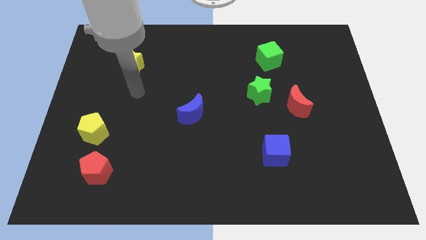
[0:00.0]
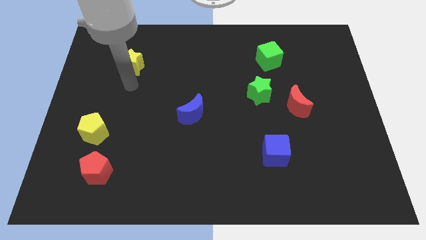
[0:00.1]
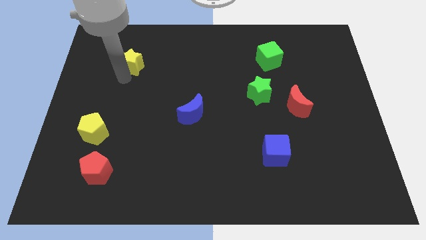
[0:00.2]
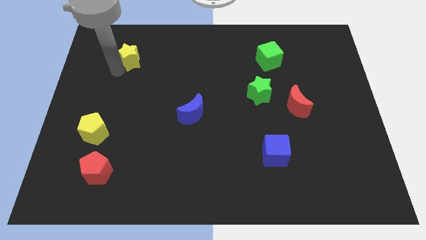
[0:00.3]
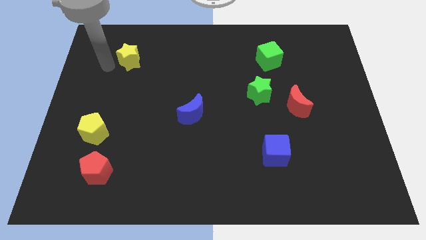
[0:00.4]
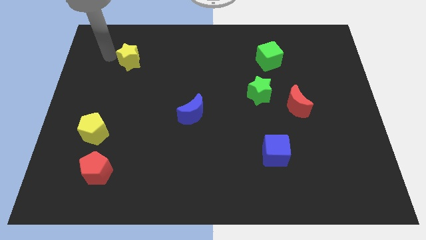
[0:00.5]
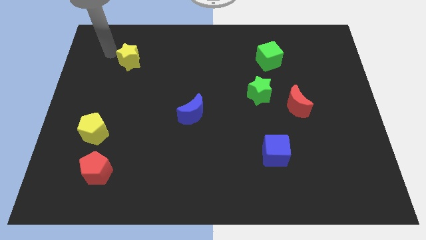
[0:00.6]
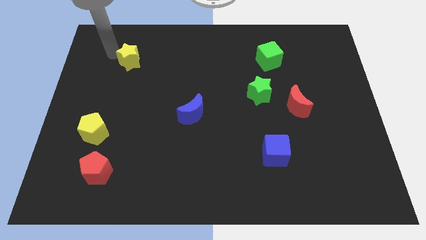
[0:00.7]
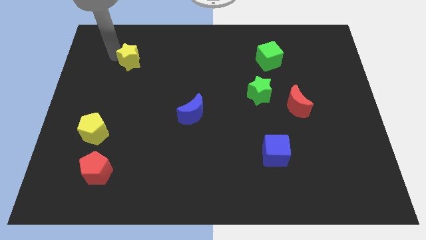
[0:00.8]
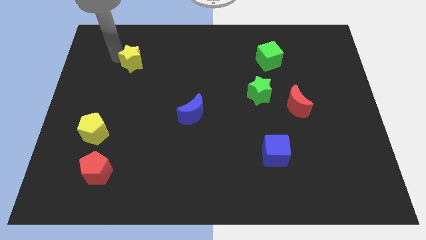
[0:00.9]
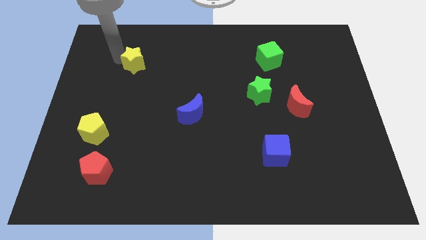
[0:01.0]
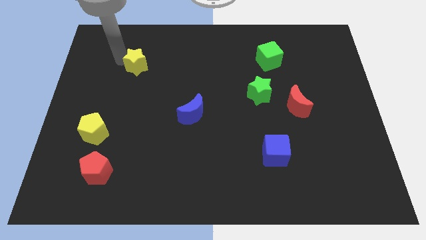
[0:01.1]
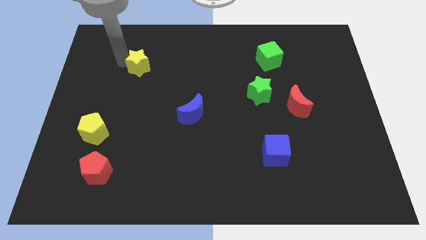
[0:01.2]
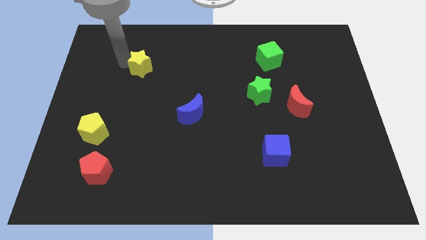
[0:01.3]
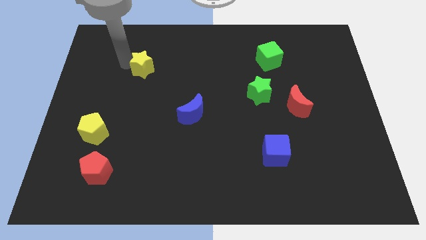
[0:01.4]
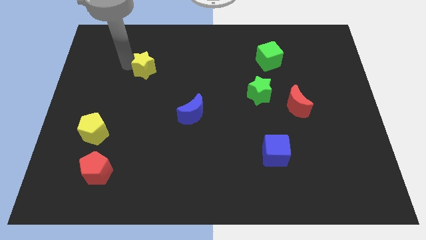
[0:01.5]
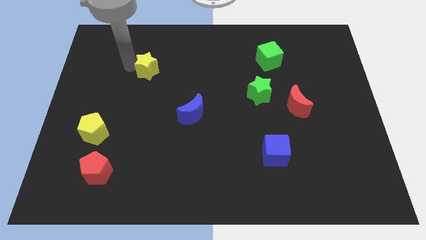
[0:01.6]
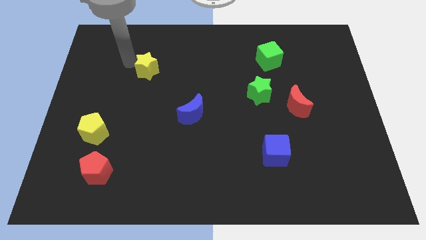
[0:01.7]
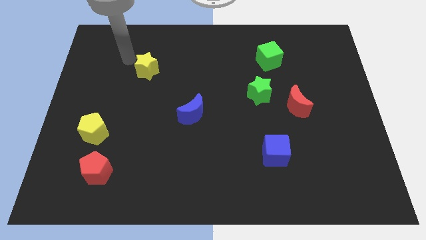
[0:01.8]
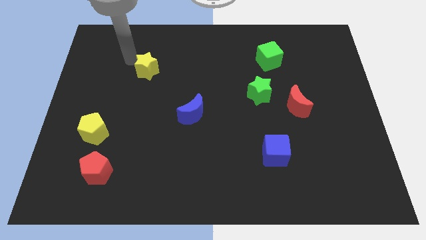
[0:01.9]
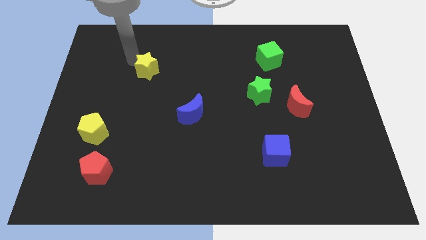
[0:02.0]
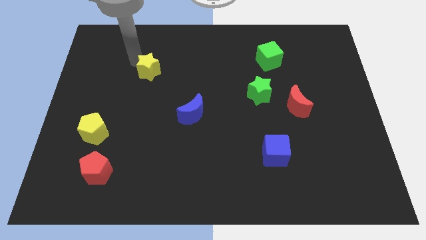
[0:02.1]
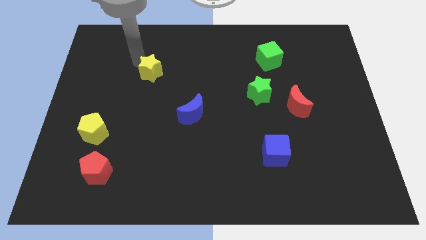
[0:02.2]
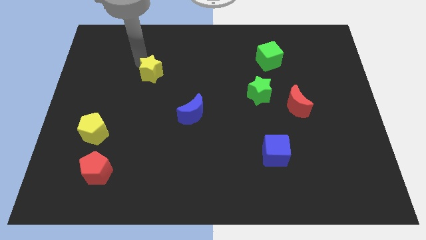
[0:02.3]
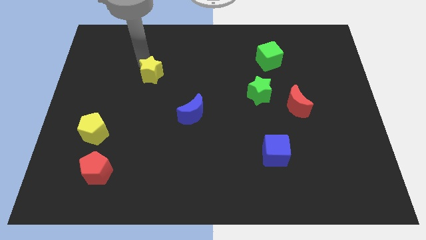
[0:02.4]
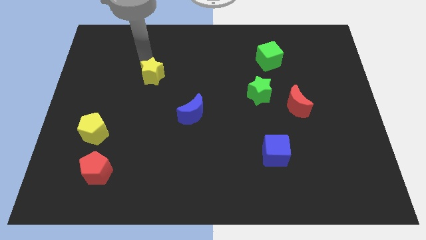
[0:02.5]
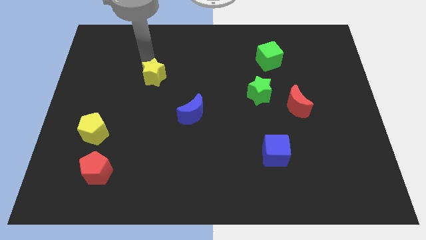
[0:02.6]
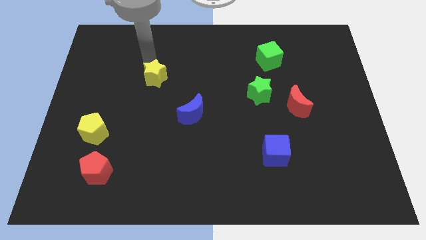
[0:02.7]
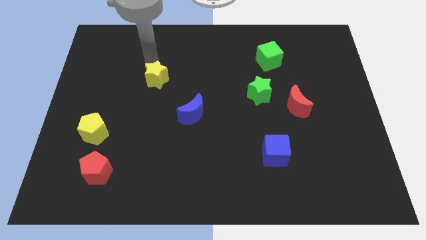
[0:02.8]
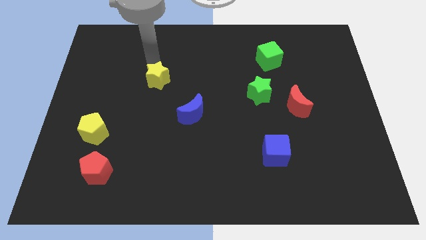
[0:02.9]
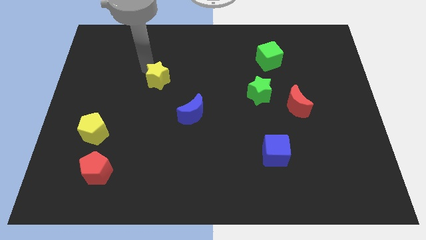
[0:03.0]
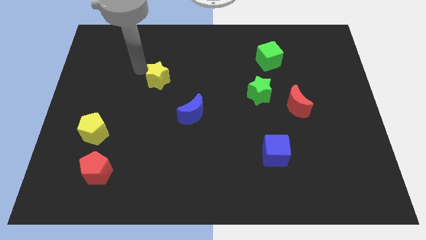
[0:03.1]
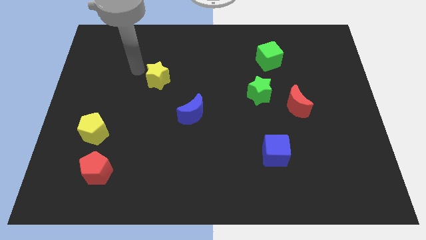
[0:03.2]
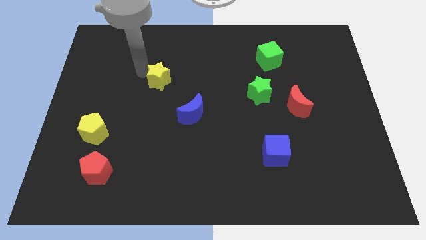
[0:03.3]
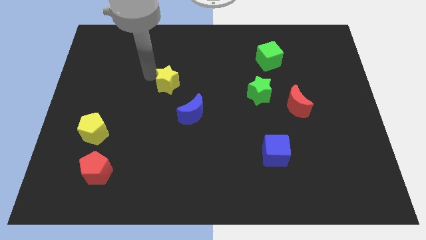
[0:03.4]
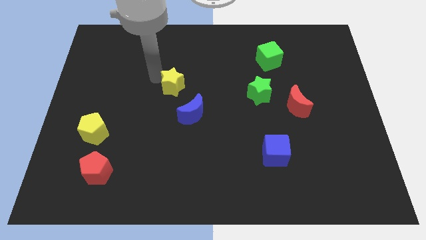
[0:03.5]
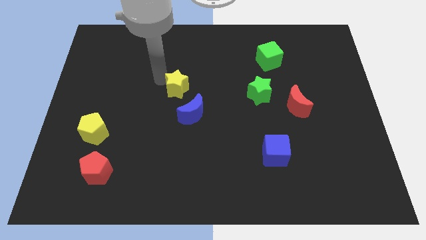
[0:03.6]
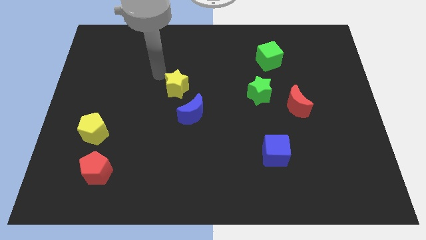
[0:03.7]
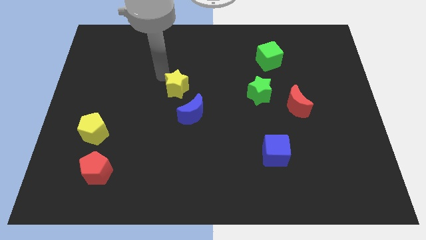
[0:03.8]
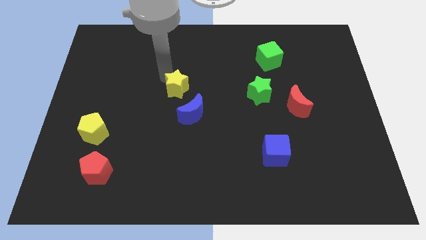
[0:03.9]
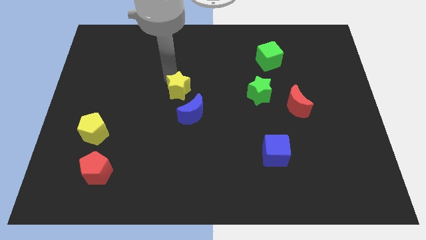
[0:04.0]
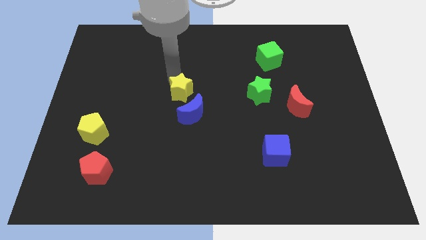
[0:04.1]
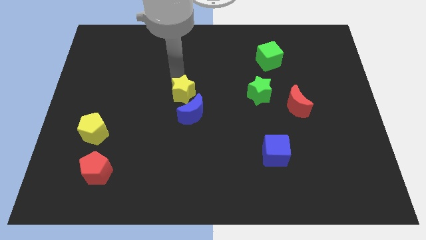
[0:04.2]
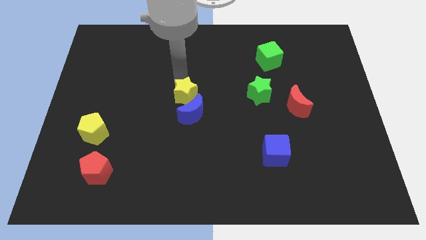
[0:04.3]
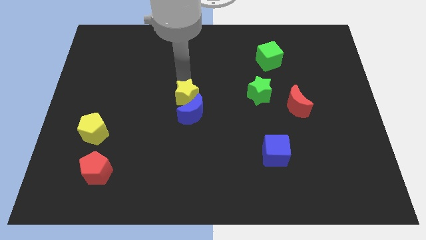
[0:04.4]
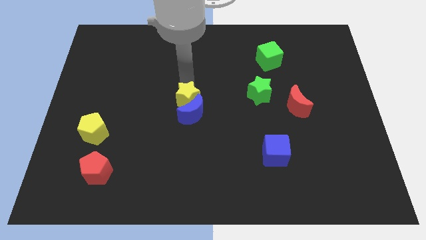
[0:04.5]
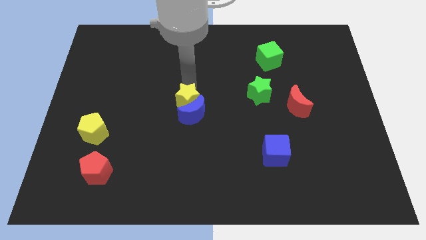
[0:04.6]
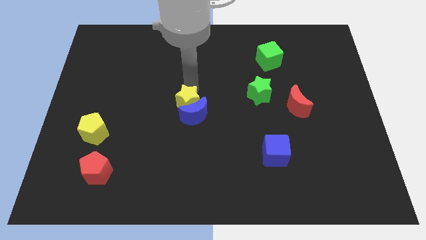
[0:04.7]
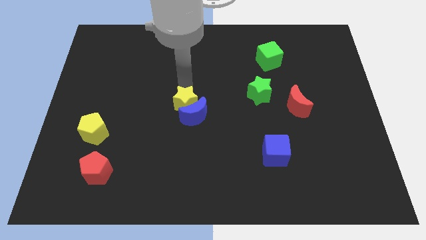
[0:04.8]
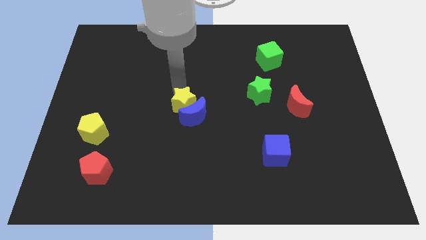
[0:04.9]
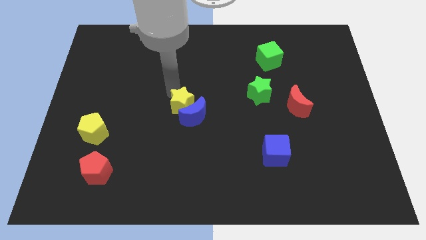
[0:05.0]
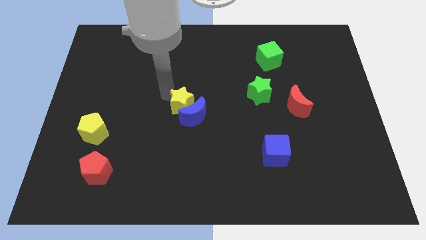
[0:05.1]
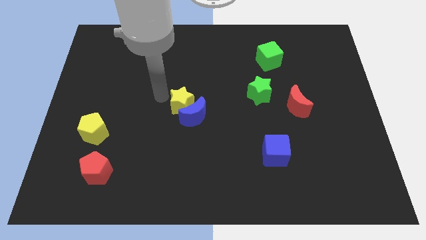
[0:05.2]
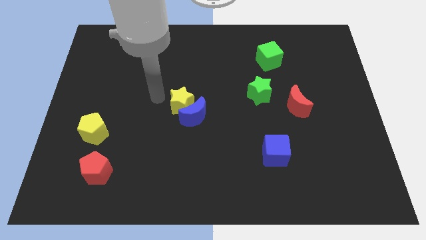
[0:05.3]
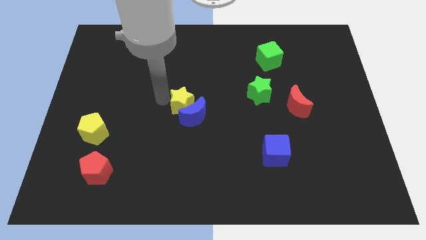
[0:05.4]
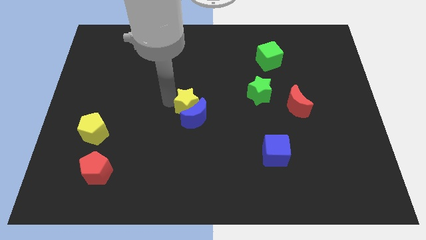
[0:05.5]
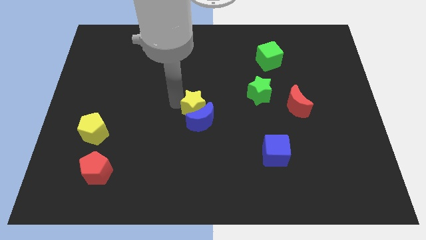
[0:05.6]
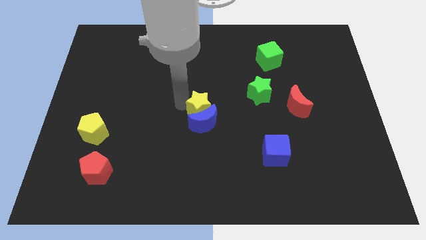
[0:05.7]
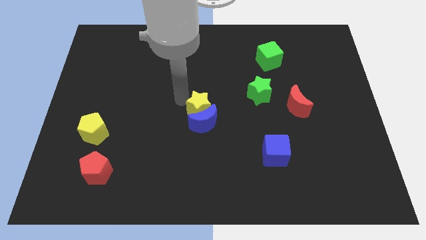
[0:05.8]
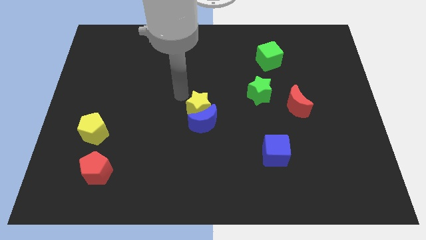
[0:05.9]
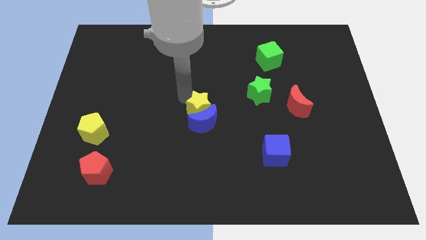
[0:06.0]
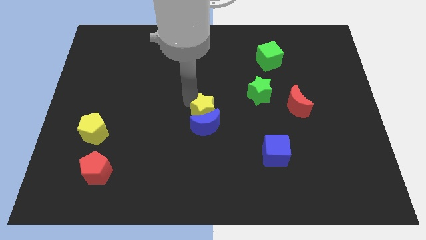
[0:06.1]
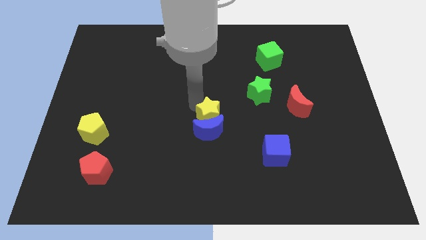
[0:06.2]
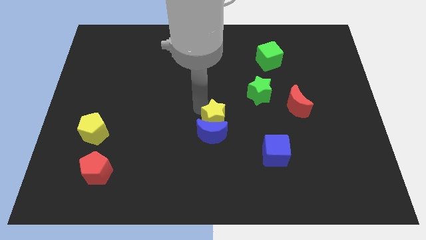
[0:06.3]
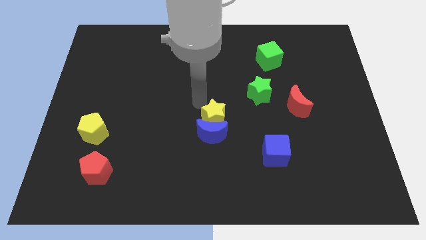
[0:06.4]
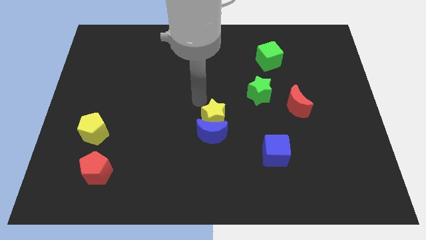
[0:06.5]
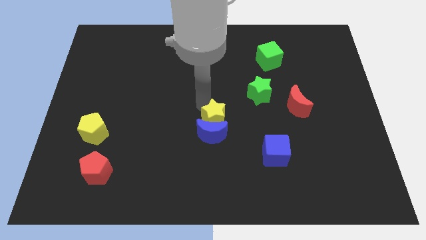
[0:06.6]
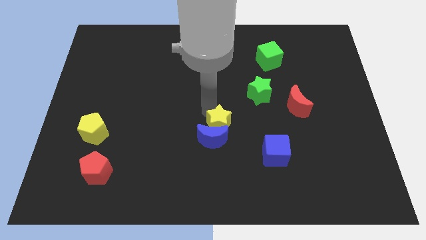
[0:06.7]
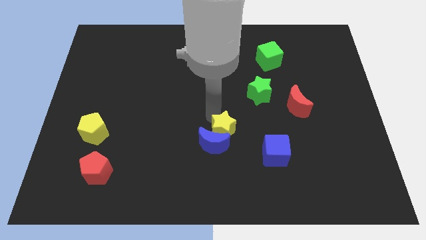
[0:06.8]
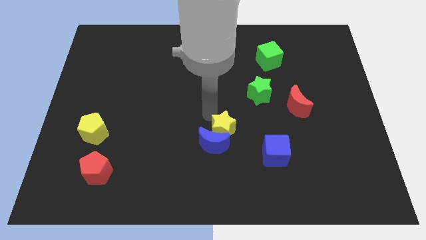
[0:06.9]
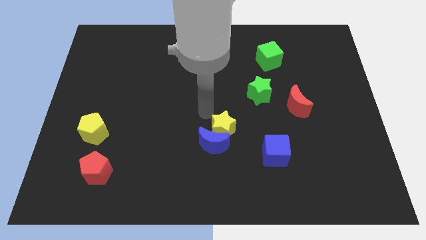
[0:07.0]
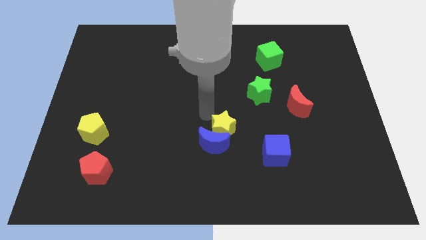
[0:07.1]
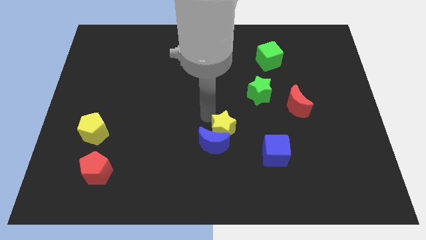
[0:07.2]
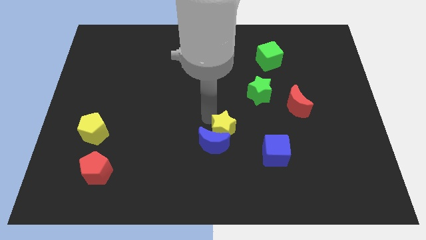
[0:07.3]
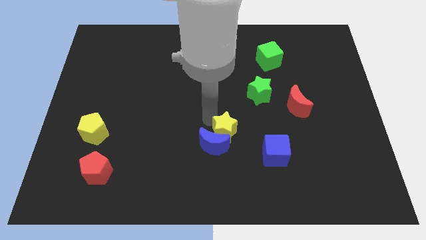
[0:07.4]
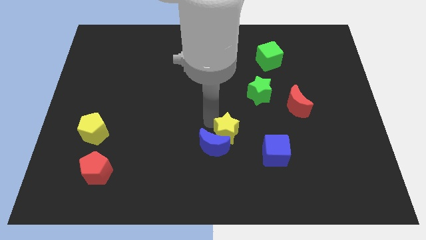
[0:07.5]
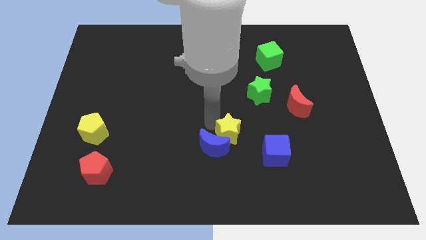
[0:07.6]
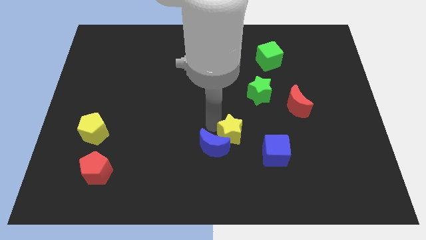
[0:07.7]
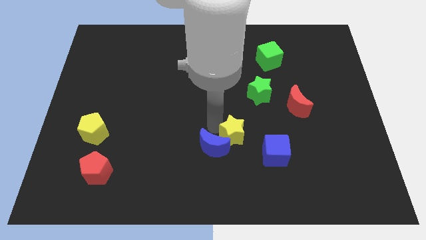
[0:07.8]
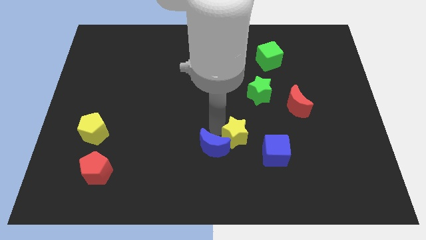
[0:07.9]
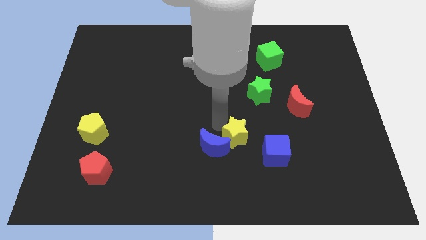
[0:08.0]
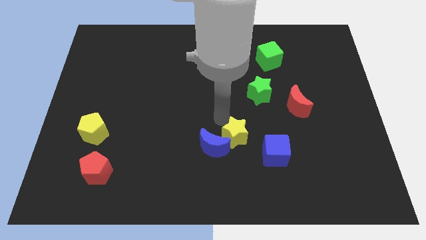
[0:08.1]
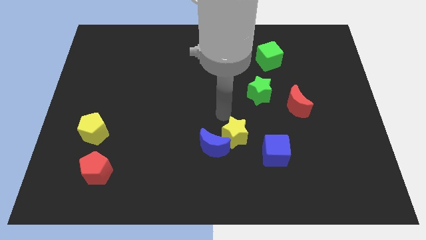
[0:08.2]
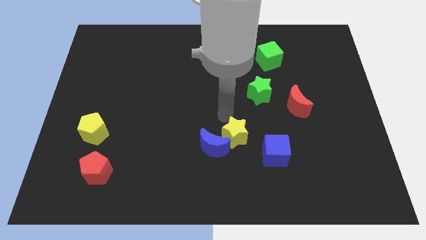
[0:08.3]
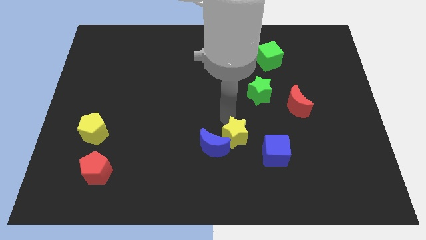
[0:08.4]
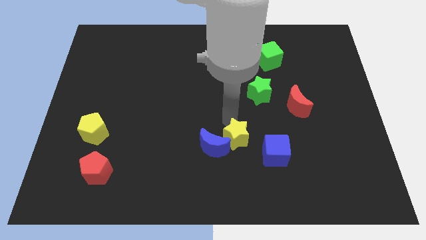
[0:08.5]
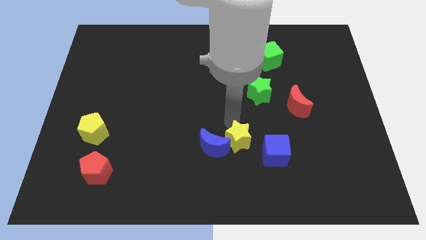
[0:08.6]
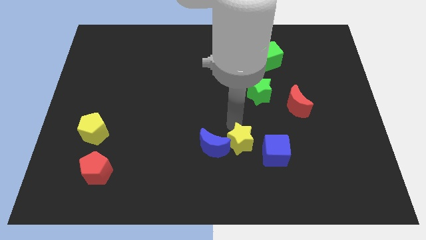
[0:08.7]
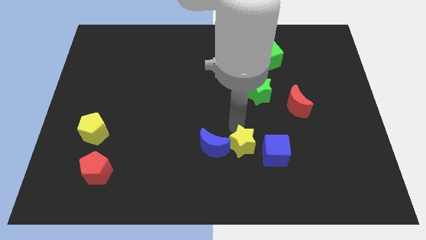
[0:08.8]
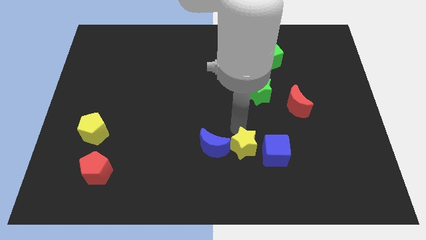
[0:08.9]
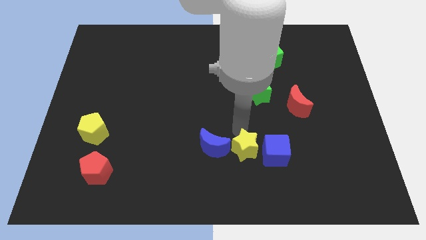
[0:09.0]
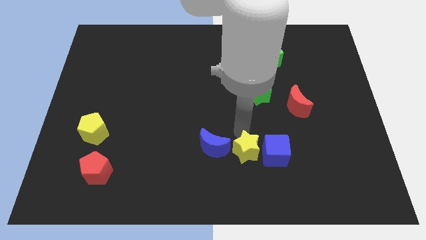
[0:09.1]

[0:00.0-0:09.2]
slide the yellow star to the bottom left of the blue cube
